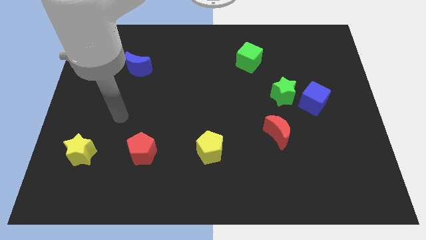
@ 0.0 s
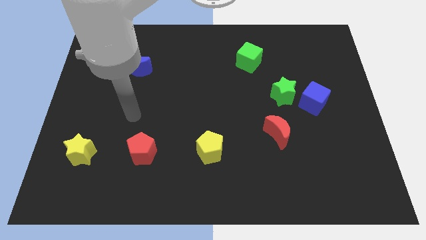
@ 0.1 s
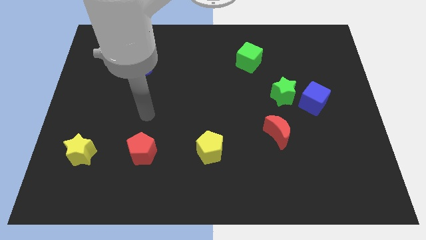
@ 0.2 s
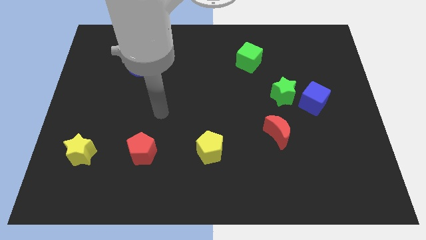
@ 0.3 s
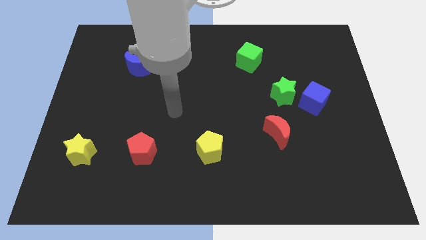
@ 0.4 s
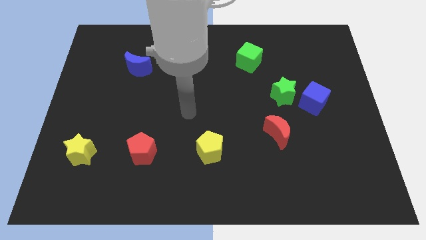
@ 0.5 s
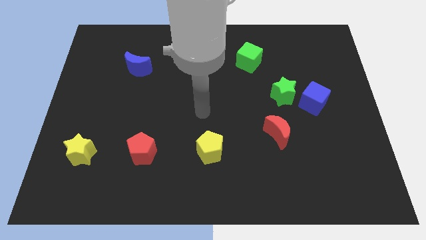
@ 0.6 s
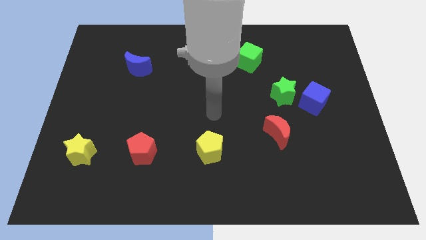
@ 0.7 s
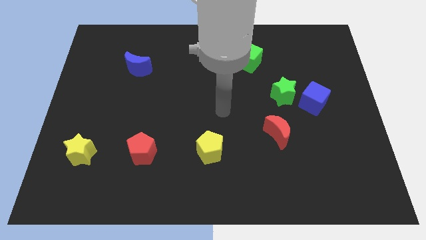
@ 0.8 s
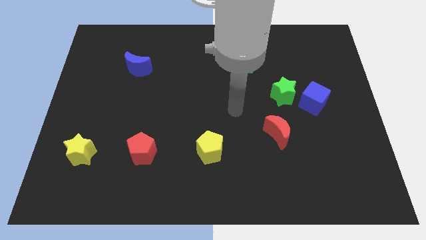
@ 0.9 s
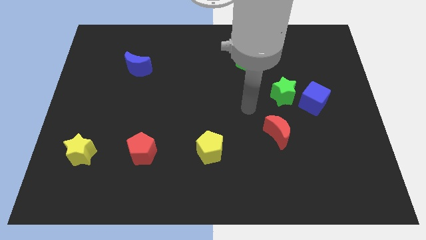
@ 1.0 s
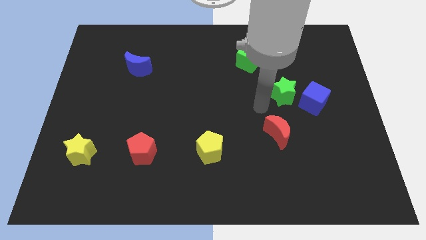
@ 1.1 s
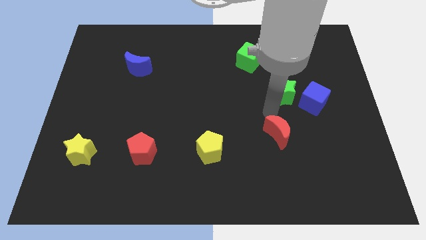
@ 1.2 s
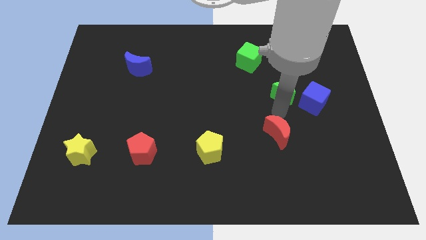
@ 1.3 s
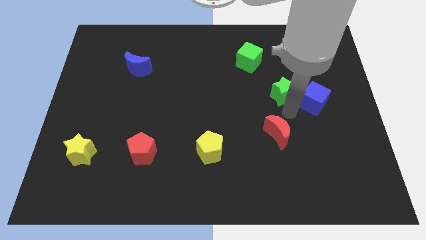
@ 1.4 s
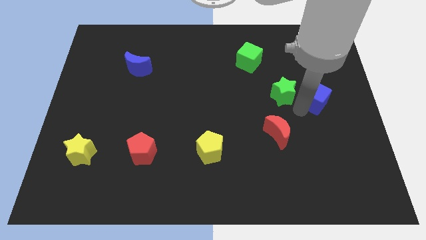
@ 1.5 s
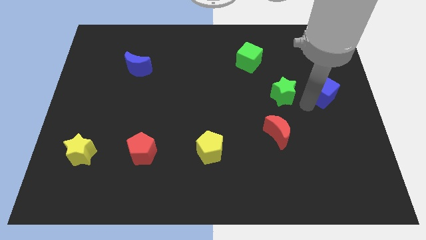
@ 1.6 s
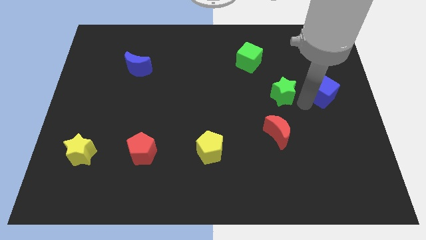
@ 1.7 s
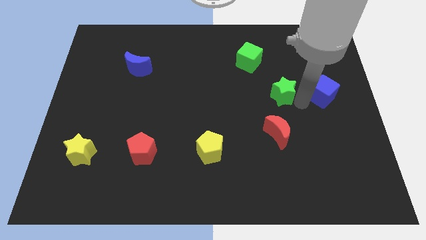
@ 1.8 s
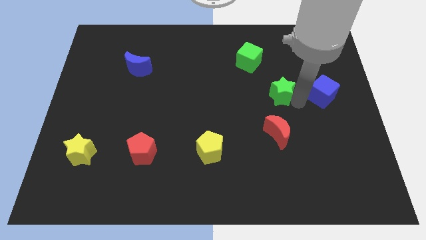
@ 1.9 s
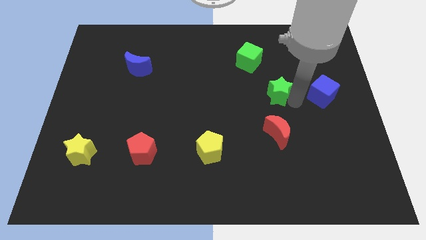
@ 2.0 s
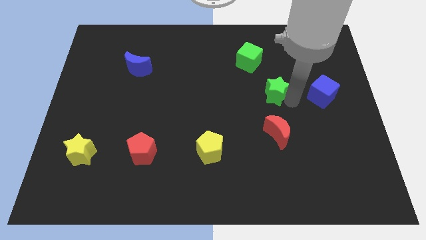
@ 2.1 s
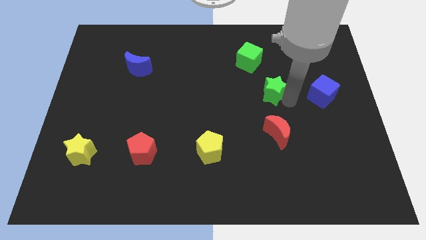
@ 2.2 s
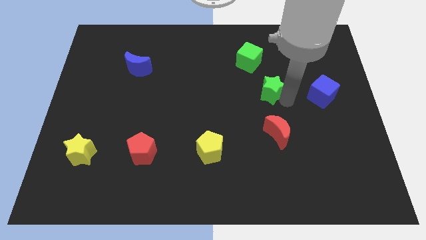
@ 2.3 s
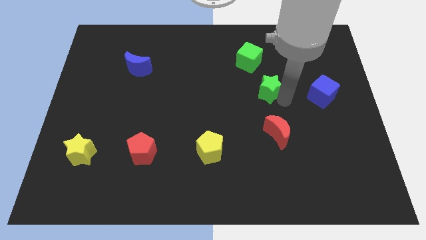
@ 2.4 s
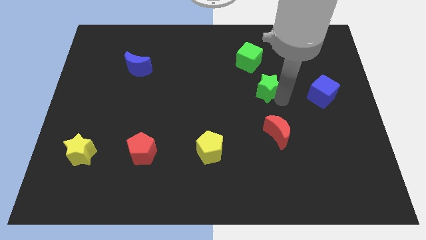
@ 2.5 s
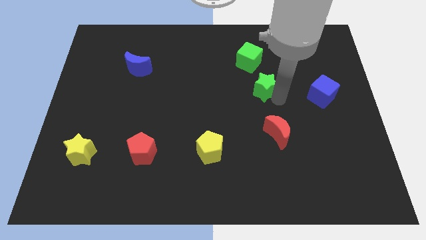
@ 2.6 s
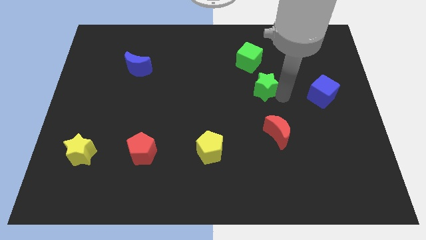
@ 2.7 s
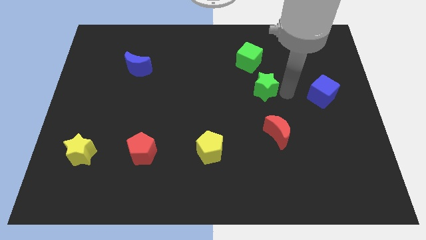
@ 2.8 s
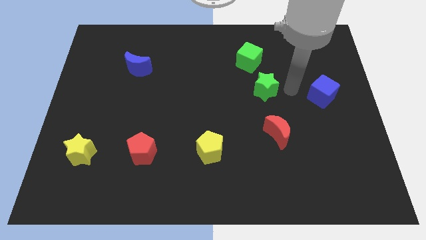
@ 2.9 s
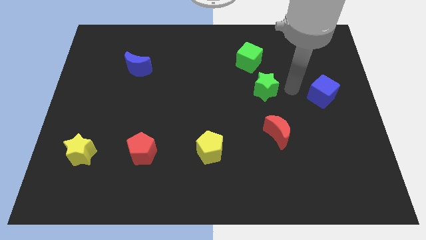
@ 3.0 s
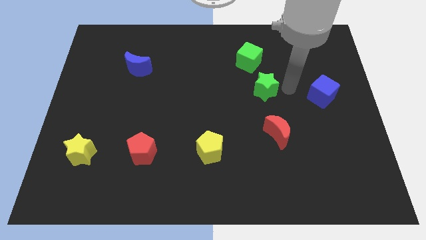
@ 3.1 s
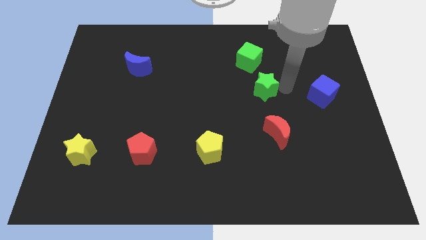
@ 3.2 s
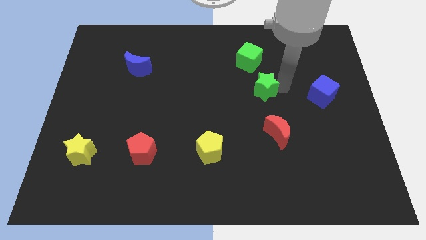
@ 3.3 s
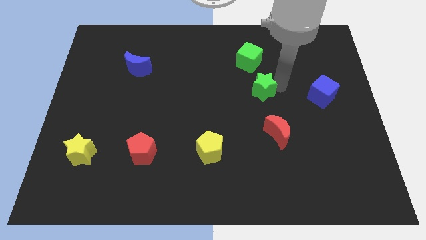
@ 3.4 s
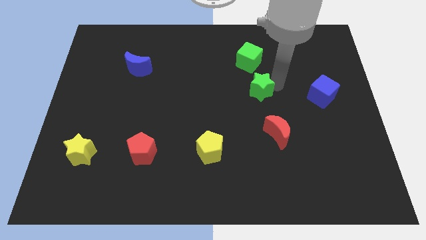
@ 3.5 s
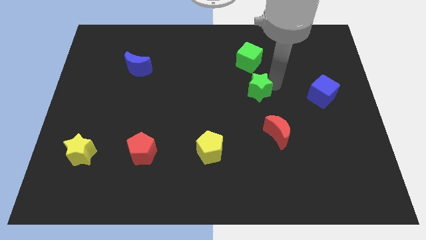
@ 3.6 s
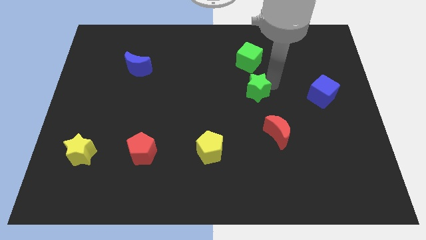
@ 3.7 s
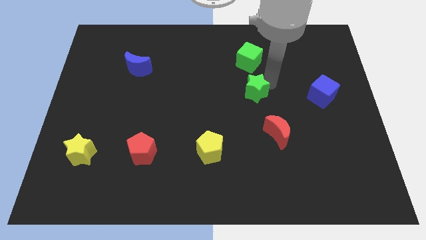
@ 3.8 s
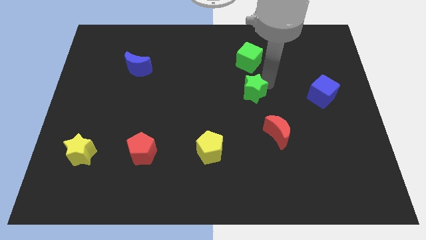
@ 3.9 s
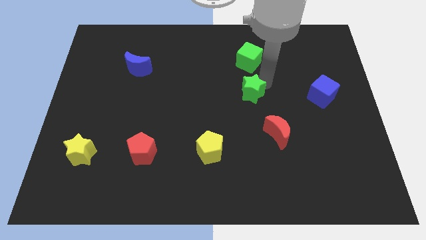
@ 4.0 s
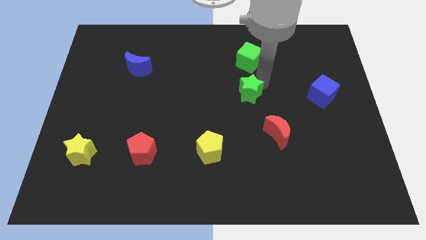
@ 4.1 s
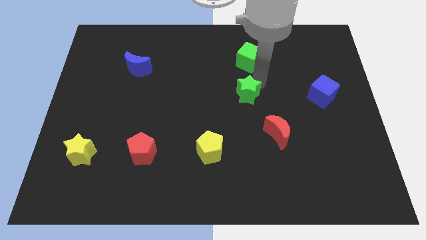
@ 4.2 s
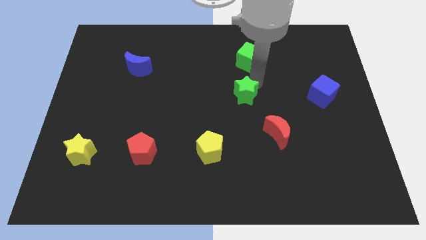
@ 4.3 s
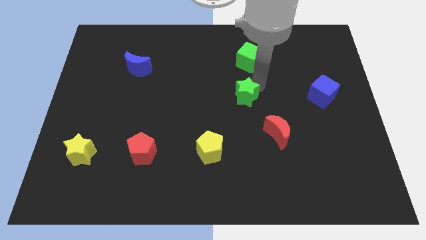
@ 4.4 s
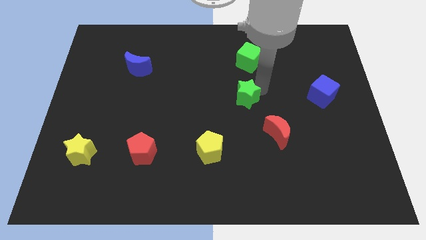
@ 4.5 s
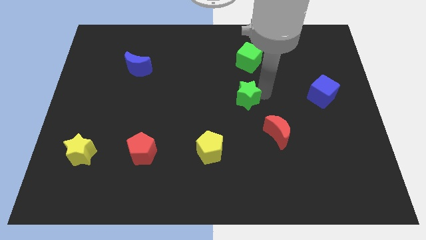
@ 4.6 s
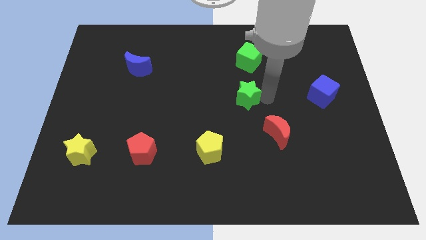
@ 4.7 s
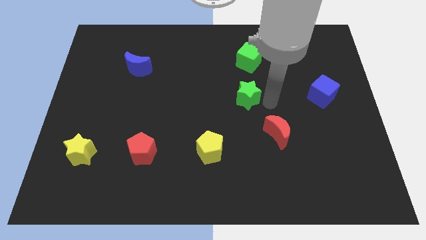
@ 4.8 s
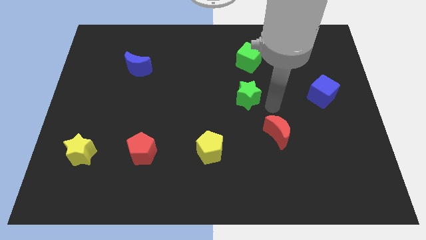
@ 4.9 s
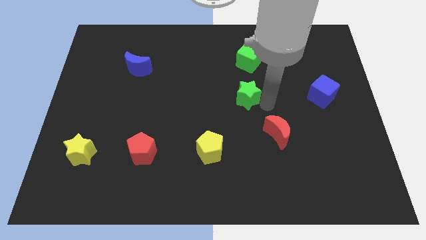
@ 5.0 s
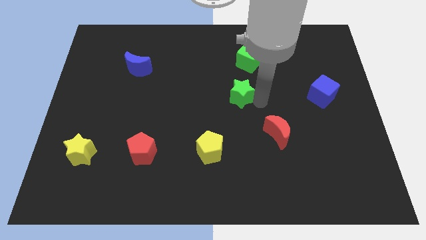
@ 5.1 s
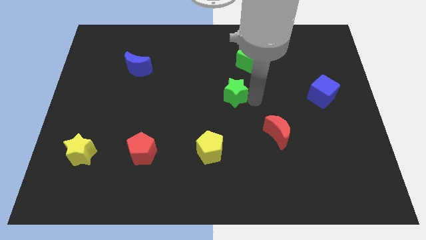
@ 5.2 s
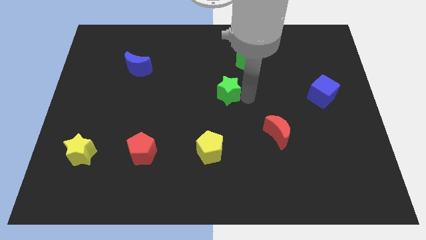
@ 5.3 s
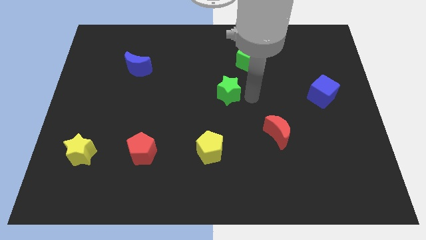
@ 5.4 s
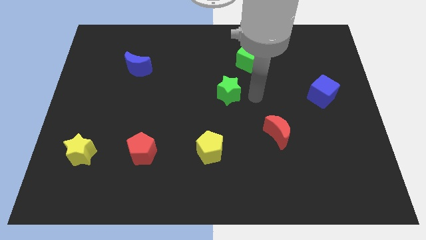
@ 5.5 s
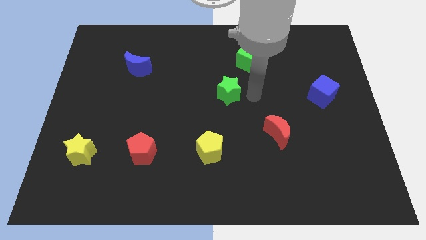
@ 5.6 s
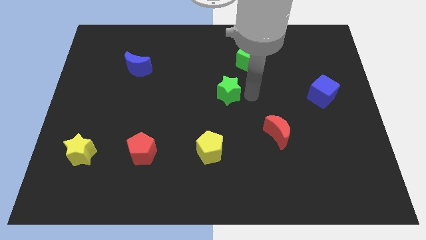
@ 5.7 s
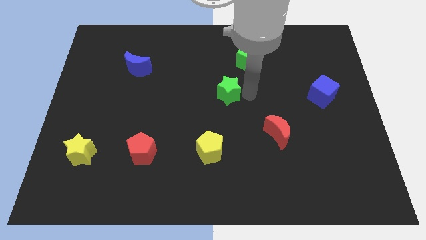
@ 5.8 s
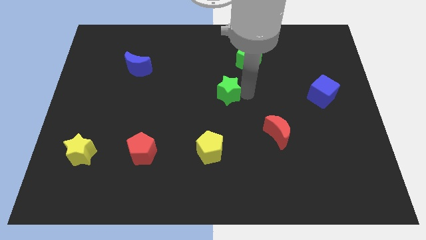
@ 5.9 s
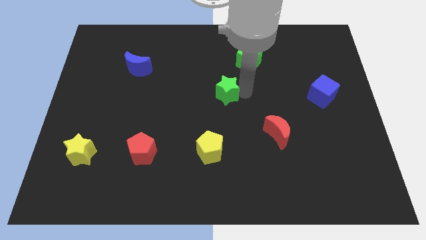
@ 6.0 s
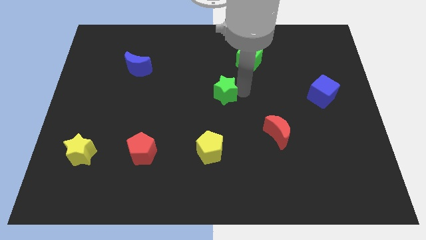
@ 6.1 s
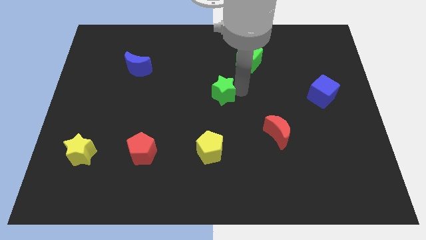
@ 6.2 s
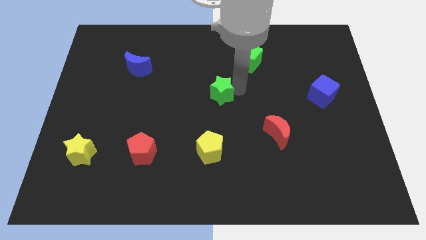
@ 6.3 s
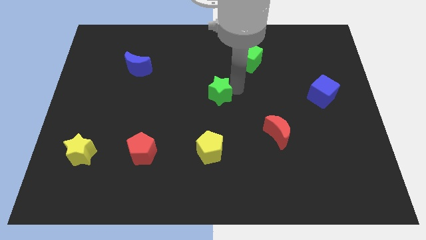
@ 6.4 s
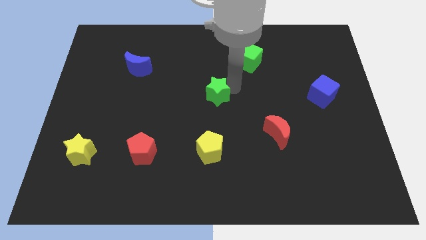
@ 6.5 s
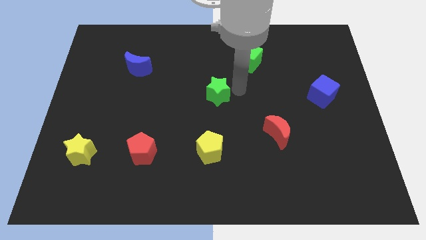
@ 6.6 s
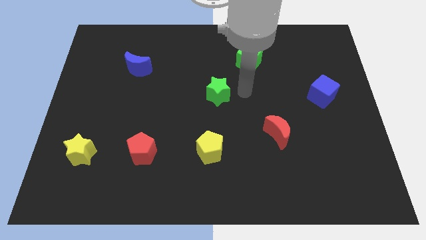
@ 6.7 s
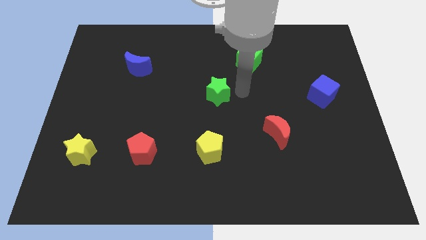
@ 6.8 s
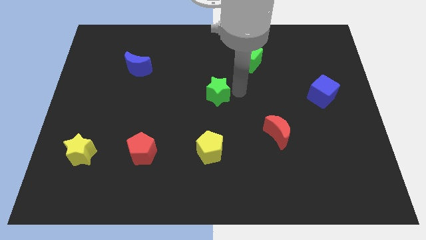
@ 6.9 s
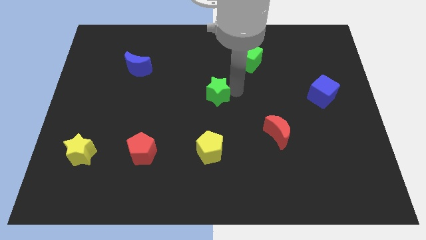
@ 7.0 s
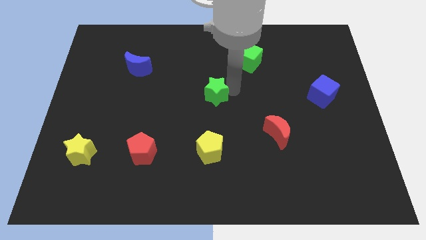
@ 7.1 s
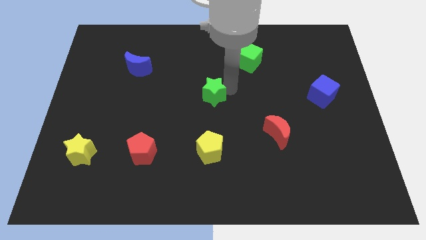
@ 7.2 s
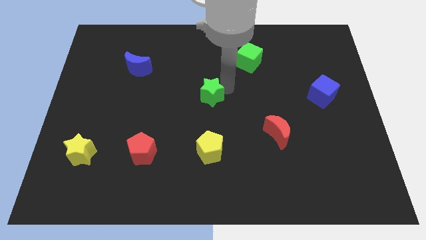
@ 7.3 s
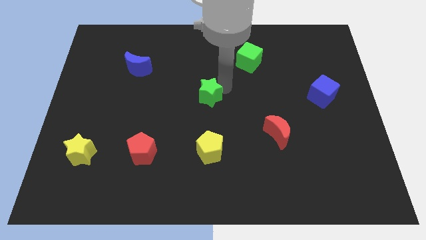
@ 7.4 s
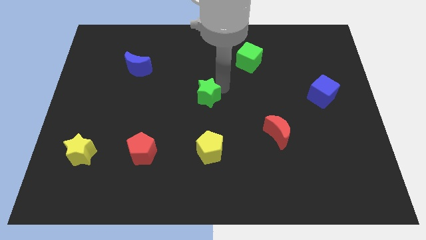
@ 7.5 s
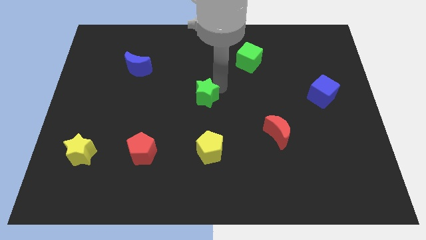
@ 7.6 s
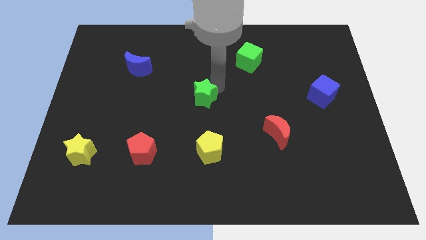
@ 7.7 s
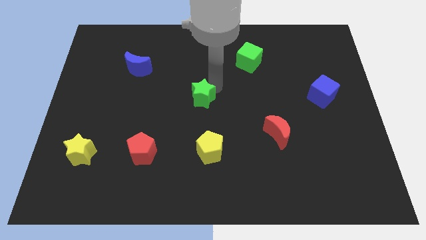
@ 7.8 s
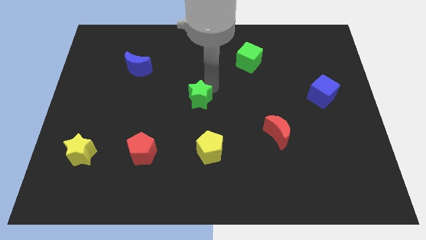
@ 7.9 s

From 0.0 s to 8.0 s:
move the green star left
